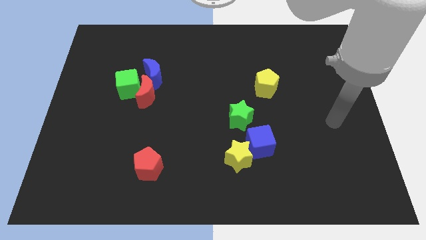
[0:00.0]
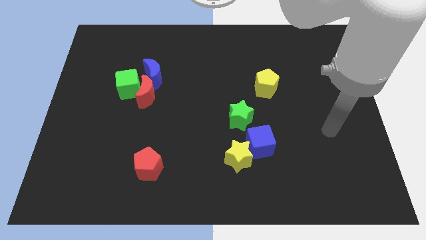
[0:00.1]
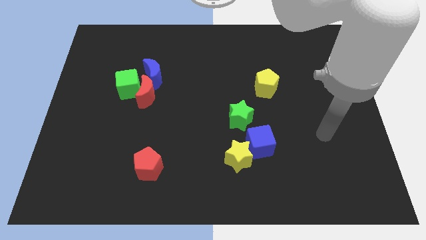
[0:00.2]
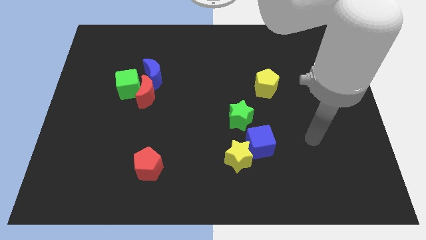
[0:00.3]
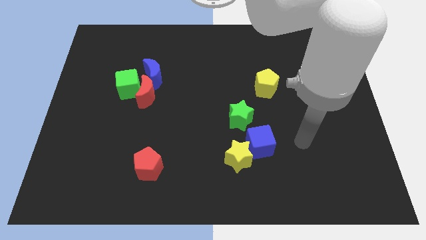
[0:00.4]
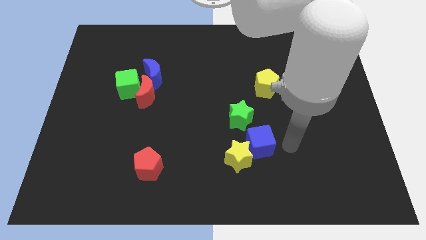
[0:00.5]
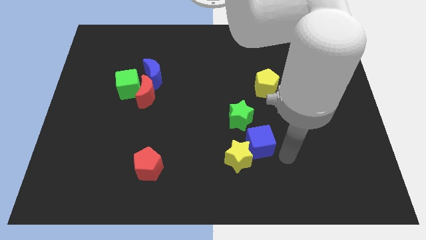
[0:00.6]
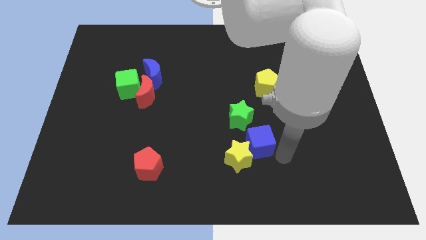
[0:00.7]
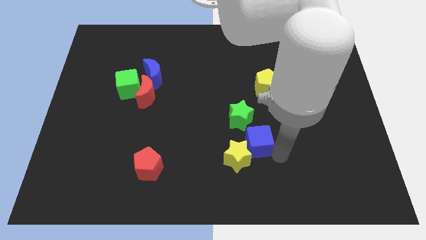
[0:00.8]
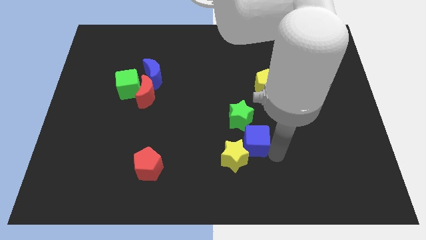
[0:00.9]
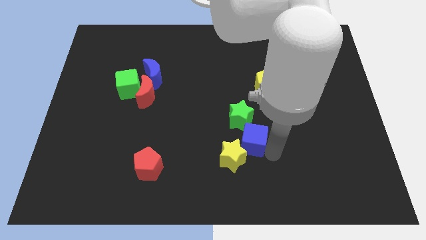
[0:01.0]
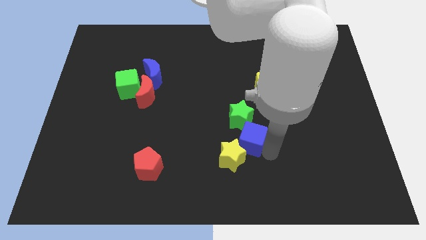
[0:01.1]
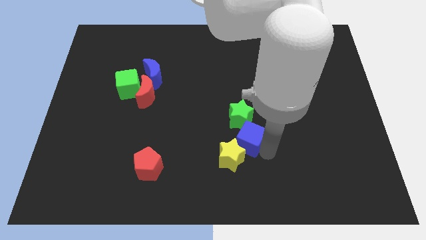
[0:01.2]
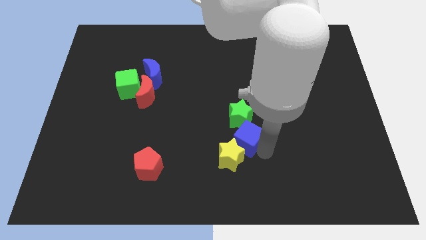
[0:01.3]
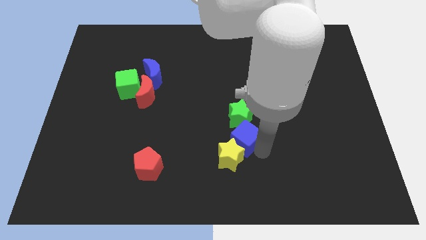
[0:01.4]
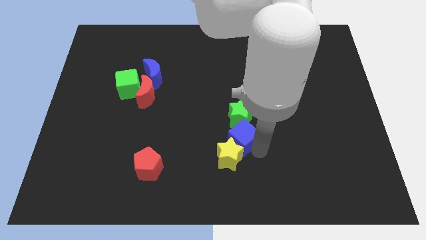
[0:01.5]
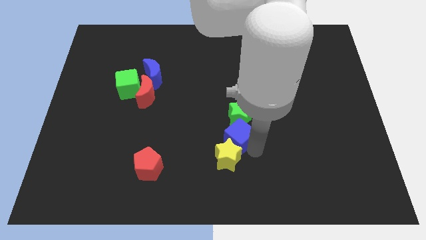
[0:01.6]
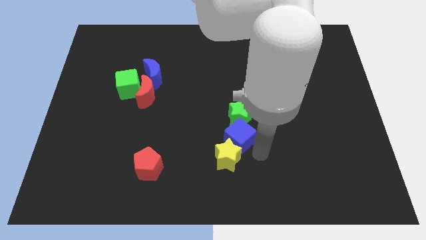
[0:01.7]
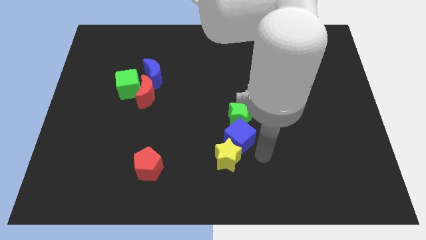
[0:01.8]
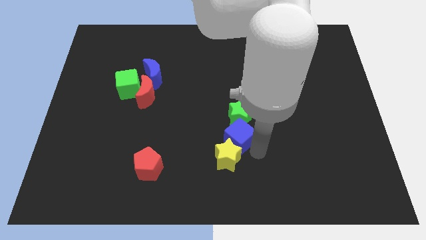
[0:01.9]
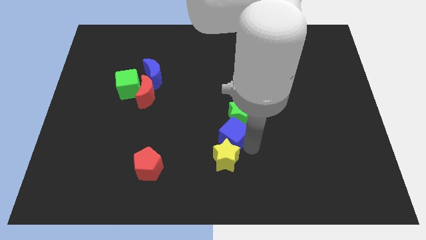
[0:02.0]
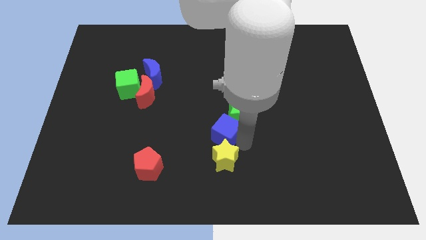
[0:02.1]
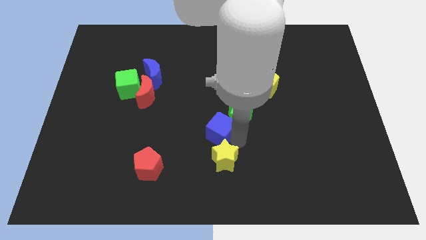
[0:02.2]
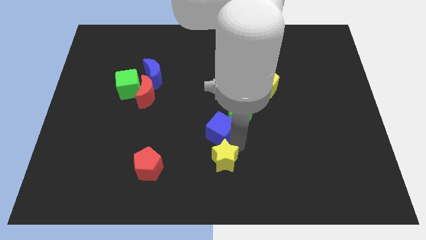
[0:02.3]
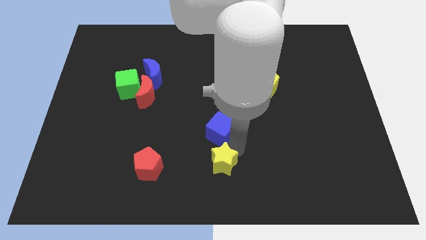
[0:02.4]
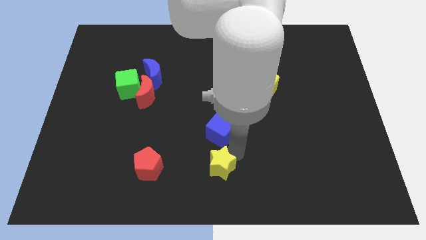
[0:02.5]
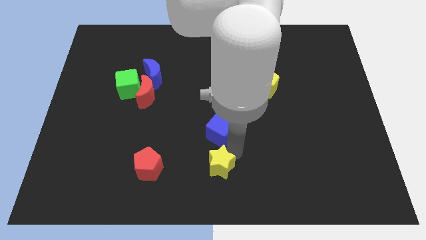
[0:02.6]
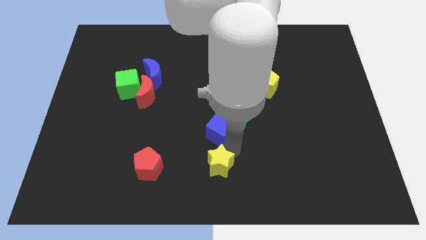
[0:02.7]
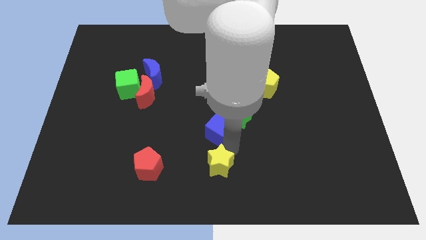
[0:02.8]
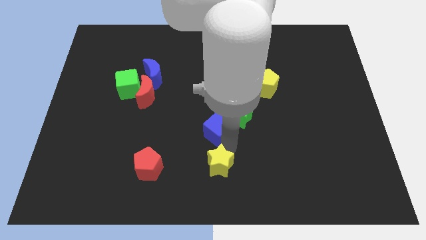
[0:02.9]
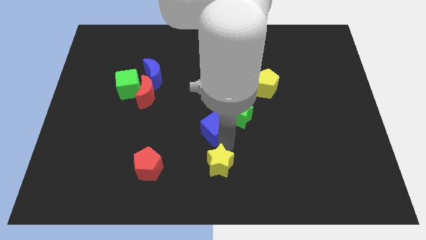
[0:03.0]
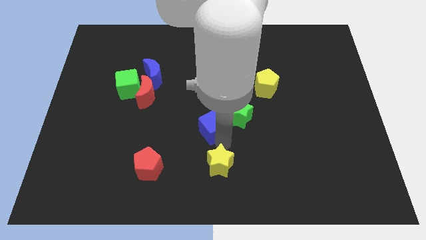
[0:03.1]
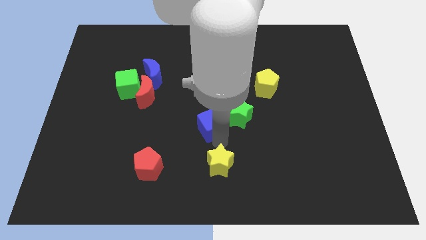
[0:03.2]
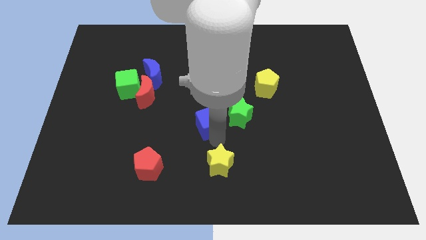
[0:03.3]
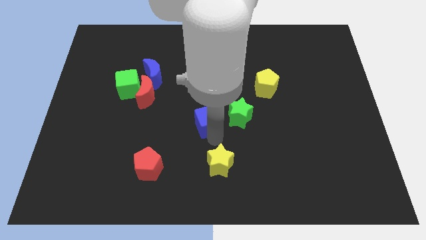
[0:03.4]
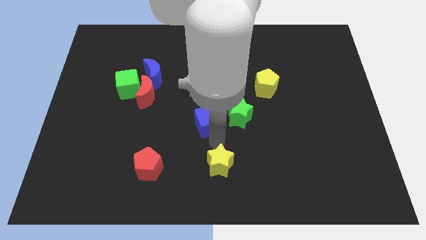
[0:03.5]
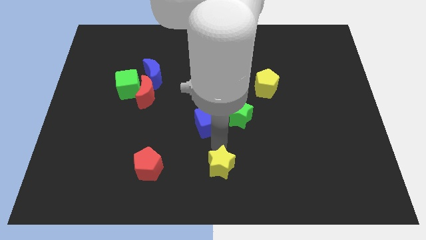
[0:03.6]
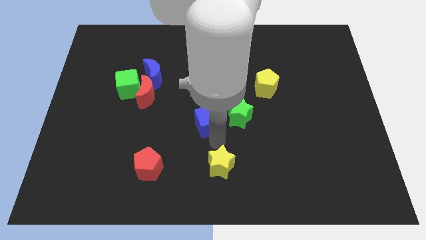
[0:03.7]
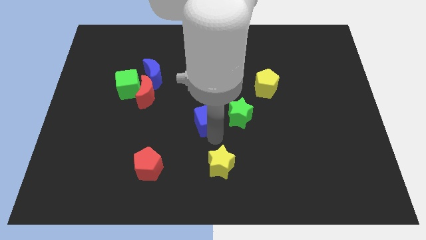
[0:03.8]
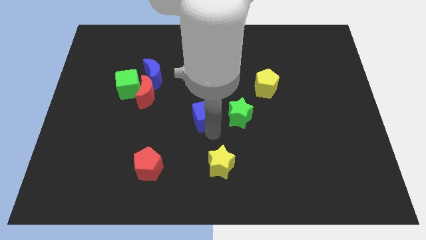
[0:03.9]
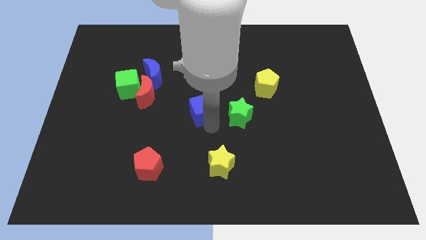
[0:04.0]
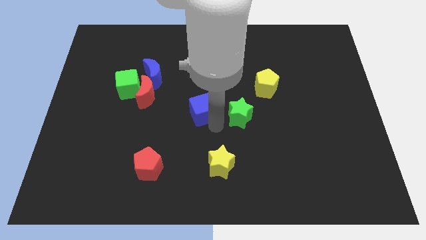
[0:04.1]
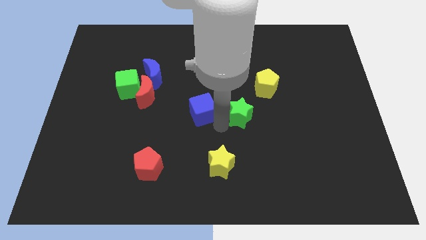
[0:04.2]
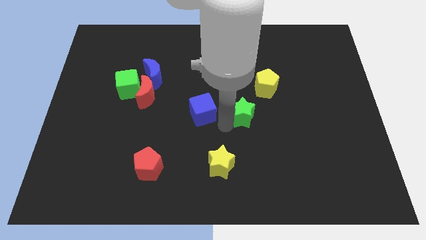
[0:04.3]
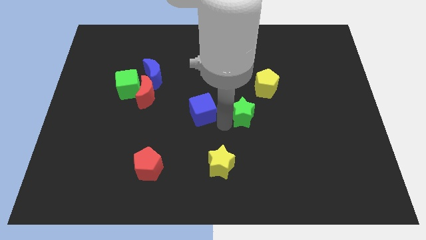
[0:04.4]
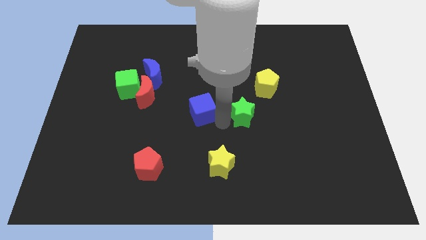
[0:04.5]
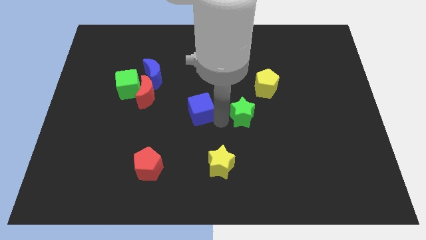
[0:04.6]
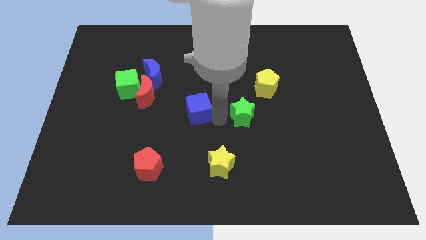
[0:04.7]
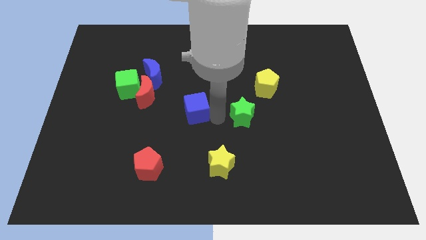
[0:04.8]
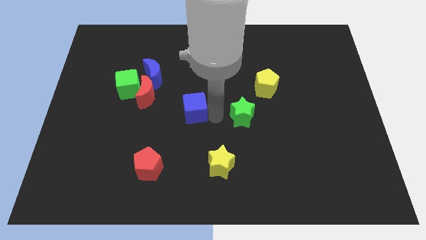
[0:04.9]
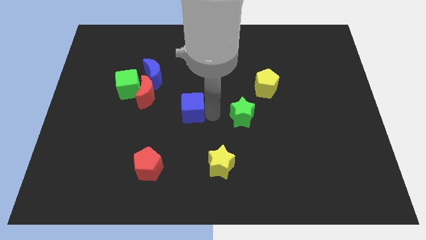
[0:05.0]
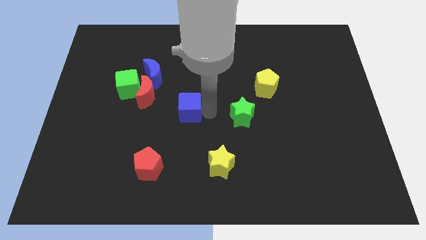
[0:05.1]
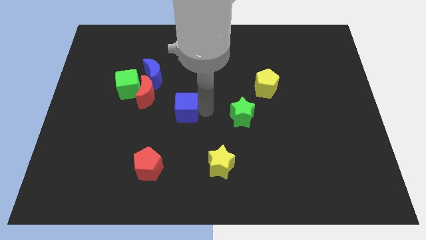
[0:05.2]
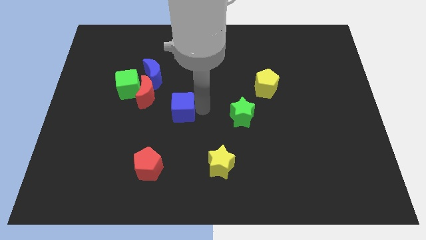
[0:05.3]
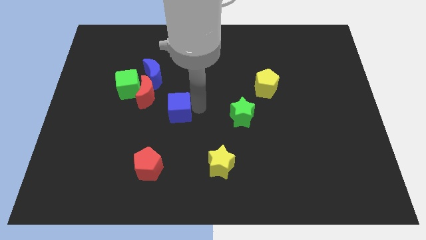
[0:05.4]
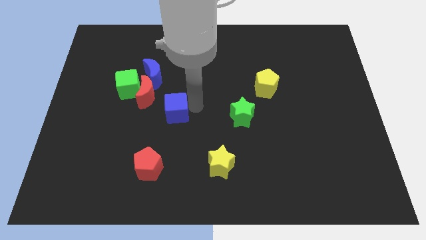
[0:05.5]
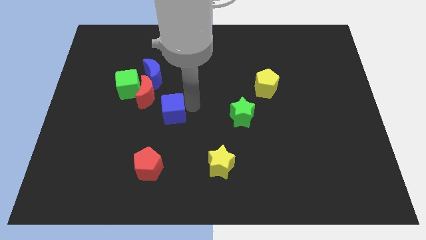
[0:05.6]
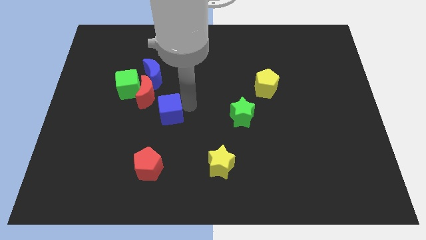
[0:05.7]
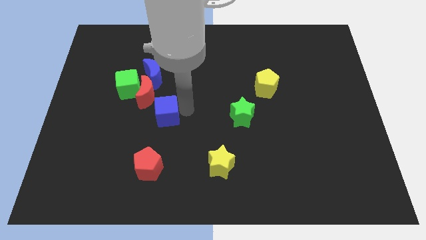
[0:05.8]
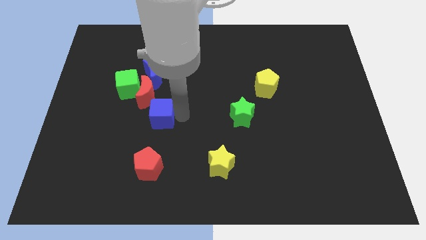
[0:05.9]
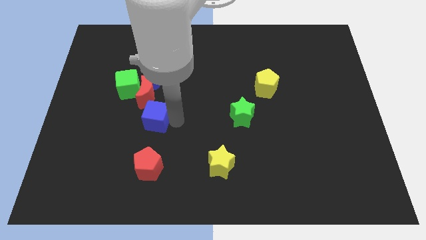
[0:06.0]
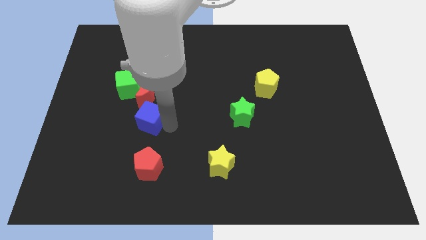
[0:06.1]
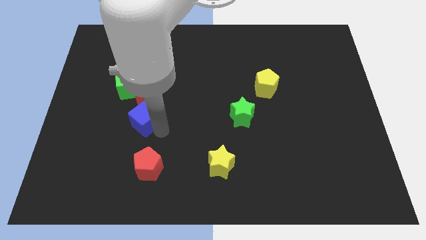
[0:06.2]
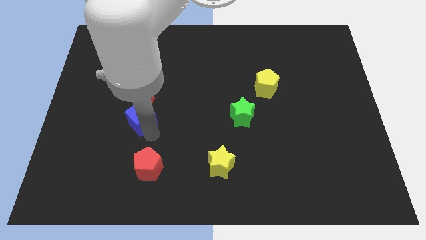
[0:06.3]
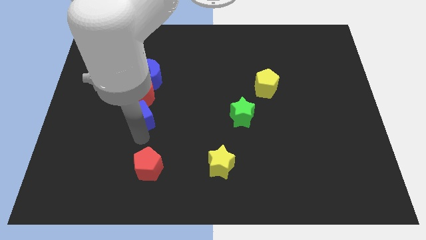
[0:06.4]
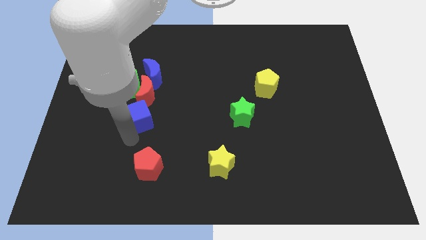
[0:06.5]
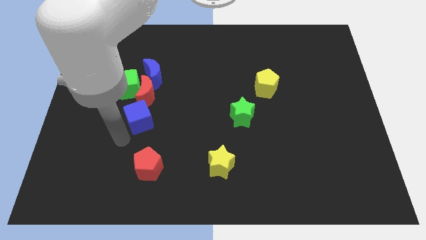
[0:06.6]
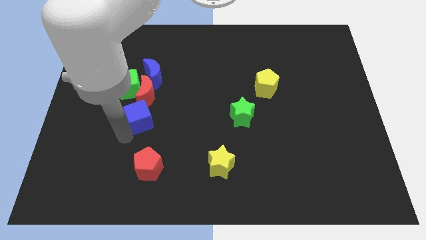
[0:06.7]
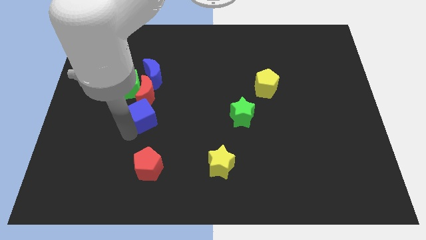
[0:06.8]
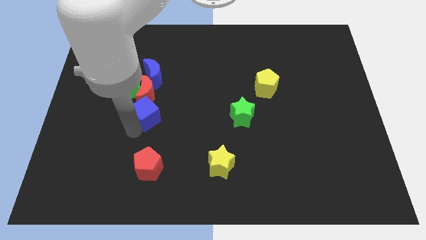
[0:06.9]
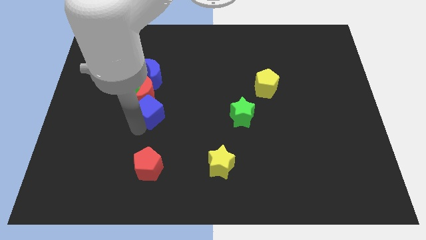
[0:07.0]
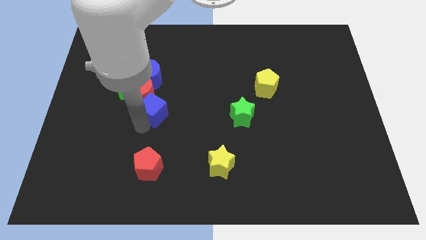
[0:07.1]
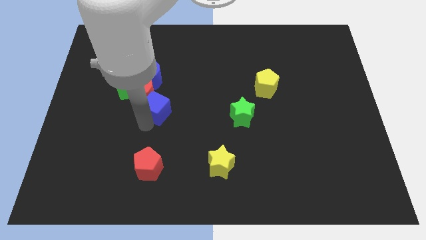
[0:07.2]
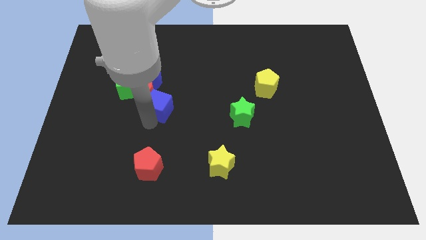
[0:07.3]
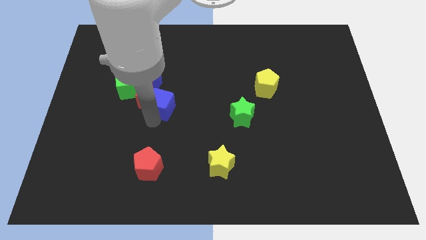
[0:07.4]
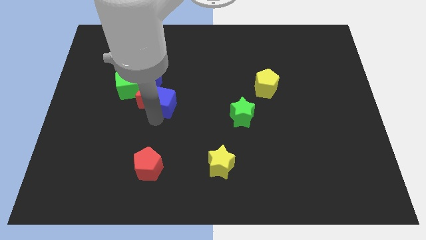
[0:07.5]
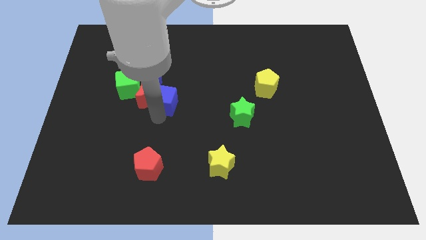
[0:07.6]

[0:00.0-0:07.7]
slide the blue cube right of the green cube
